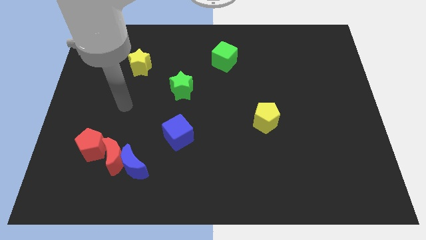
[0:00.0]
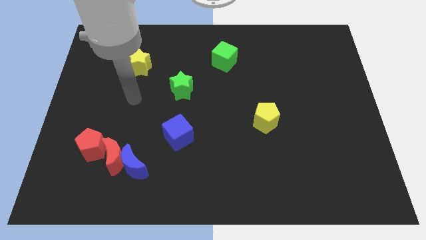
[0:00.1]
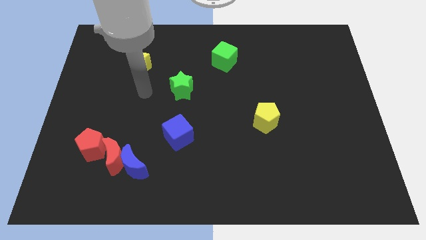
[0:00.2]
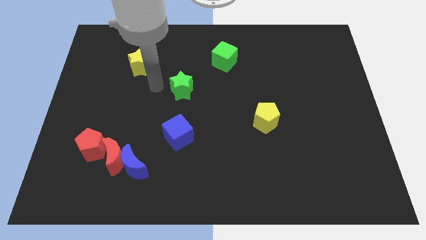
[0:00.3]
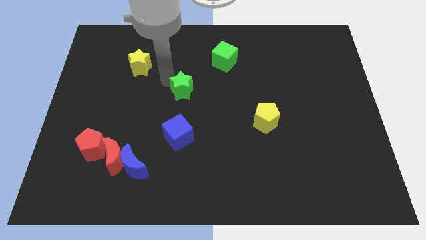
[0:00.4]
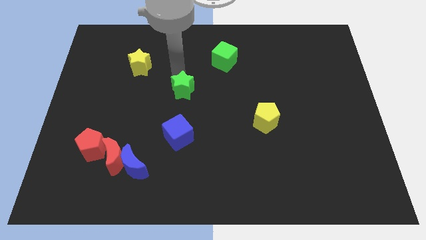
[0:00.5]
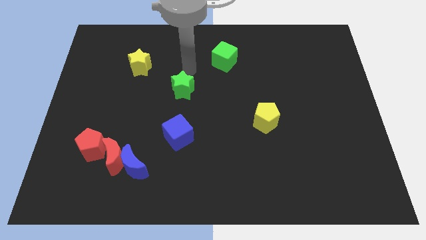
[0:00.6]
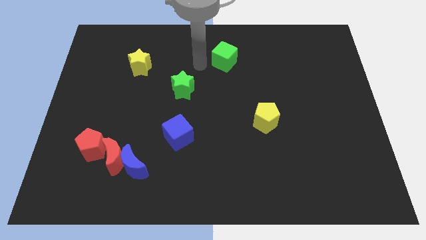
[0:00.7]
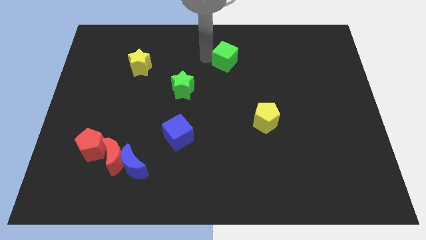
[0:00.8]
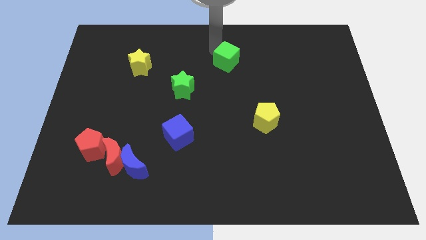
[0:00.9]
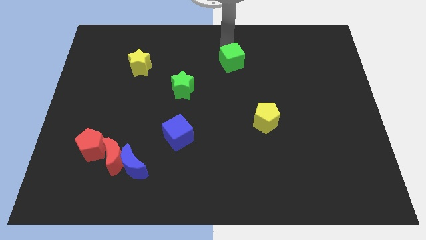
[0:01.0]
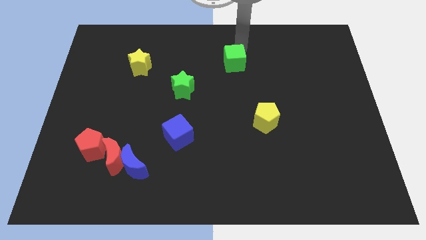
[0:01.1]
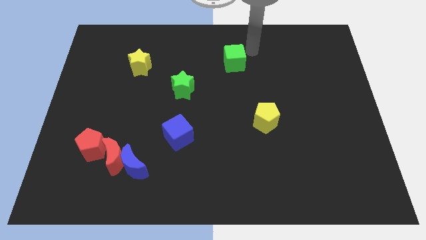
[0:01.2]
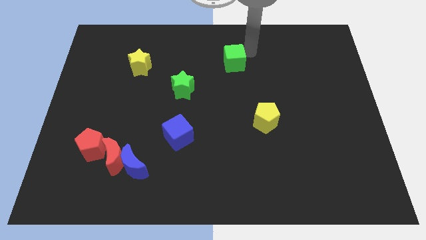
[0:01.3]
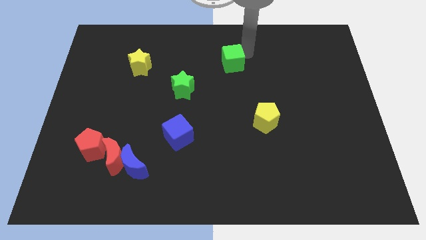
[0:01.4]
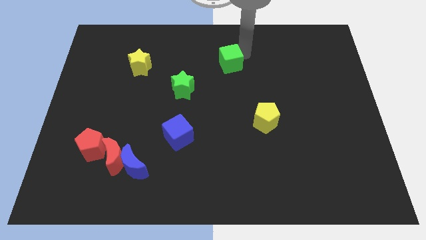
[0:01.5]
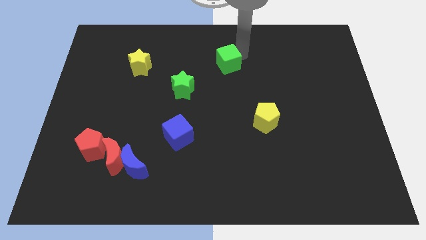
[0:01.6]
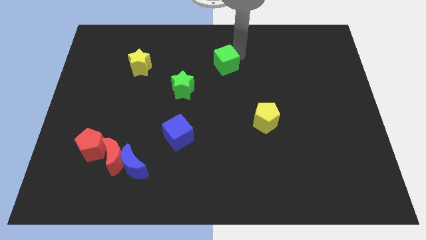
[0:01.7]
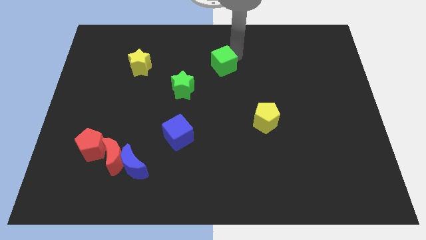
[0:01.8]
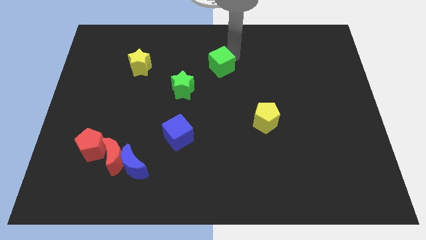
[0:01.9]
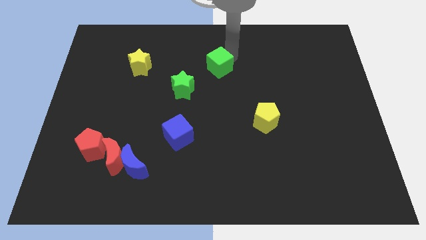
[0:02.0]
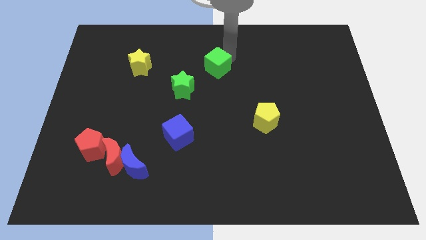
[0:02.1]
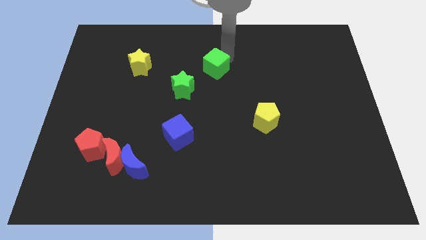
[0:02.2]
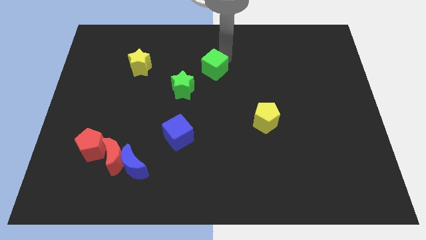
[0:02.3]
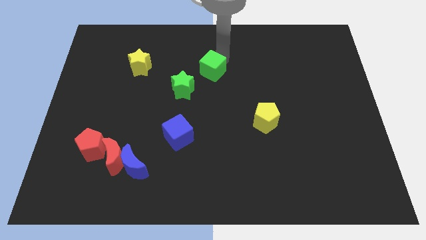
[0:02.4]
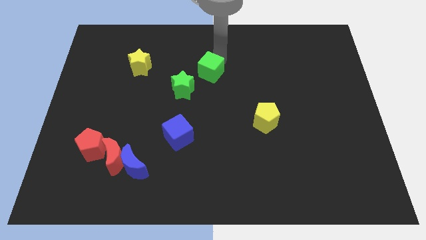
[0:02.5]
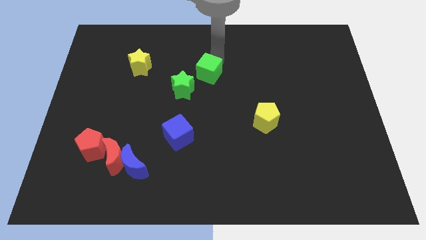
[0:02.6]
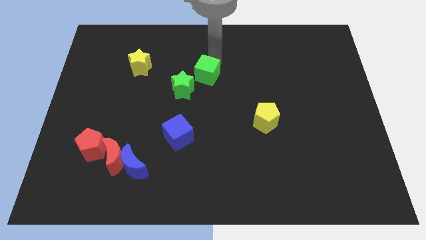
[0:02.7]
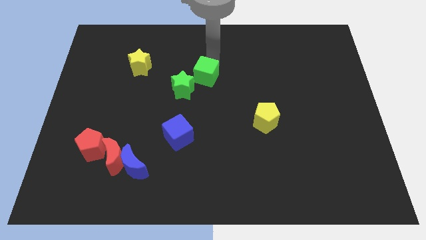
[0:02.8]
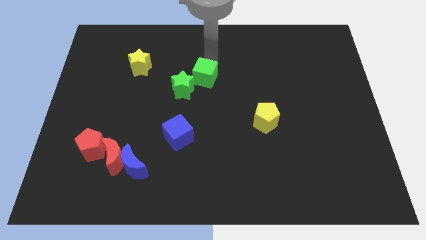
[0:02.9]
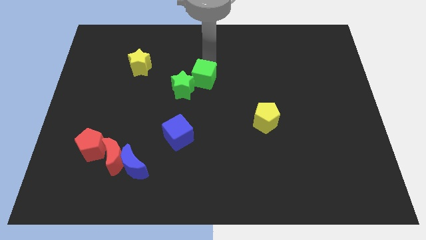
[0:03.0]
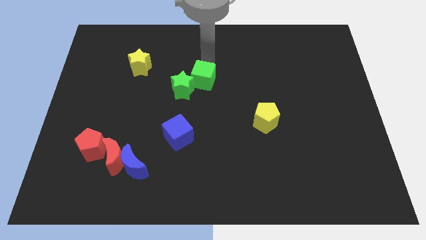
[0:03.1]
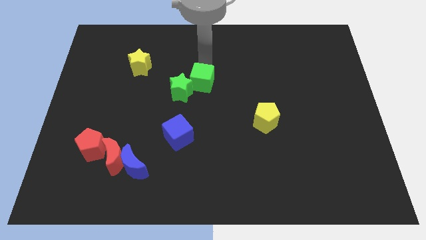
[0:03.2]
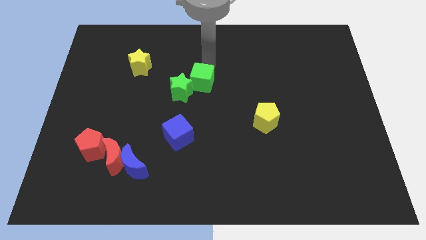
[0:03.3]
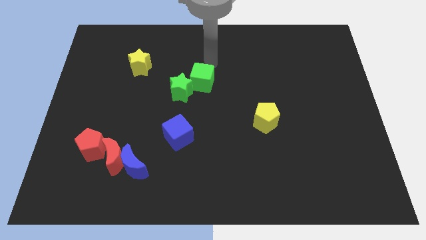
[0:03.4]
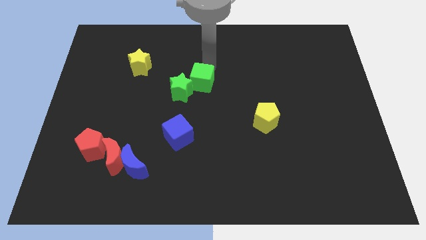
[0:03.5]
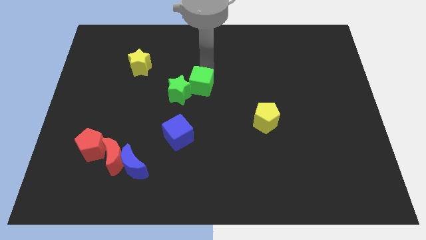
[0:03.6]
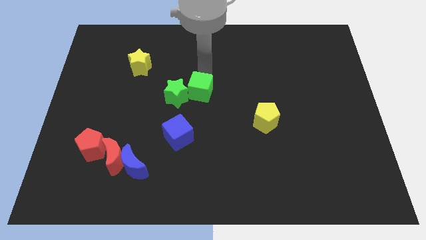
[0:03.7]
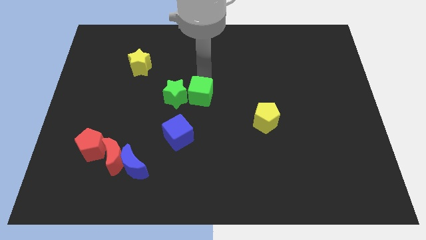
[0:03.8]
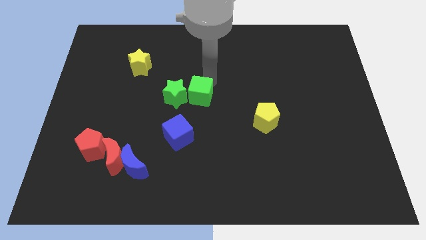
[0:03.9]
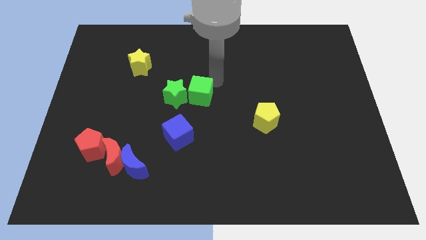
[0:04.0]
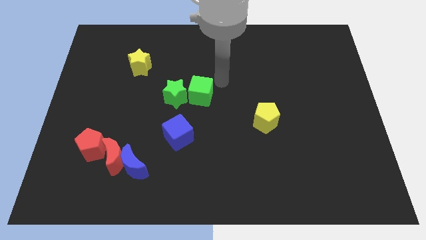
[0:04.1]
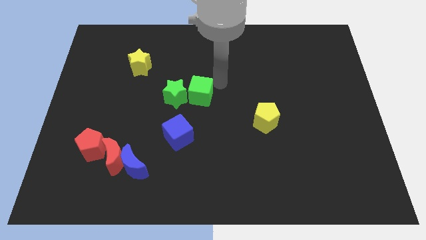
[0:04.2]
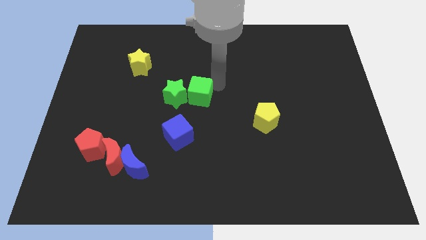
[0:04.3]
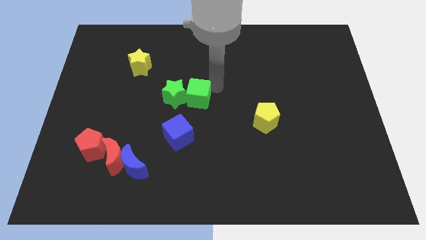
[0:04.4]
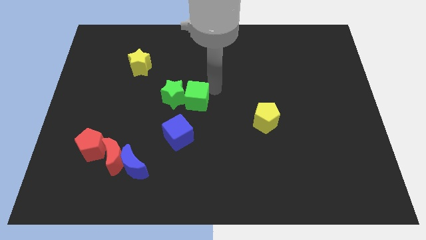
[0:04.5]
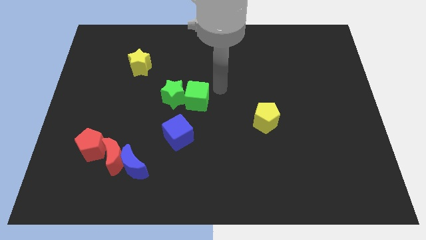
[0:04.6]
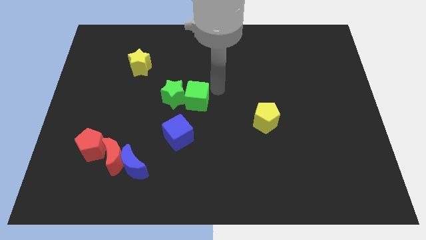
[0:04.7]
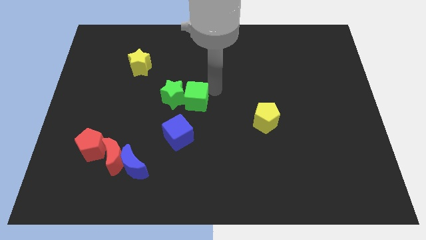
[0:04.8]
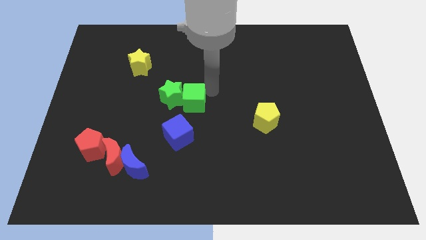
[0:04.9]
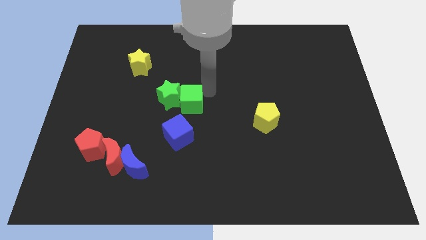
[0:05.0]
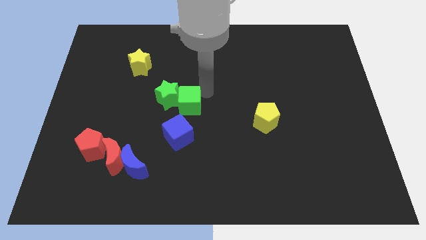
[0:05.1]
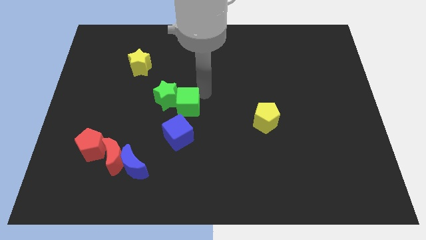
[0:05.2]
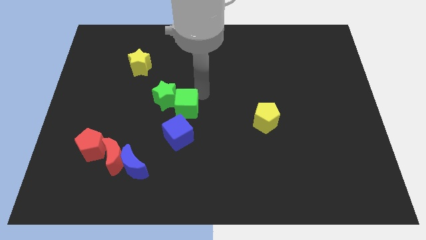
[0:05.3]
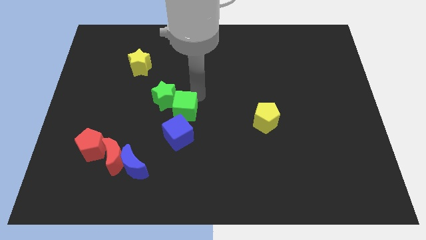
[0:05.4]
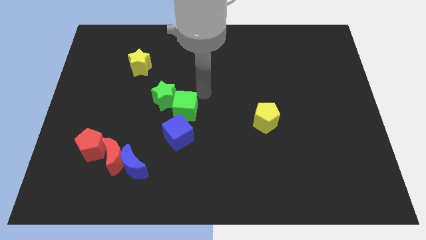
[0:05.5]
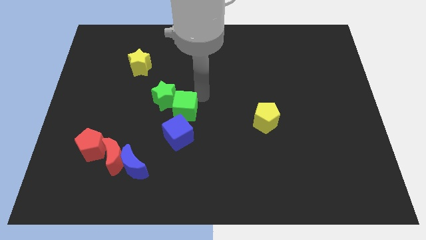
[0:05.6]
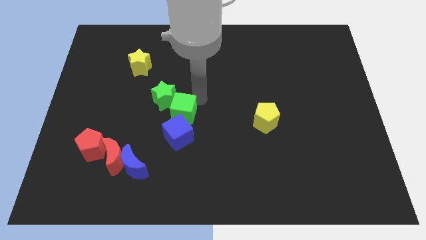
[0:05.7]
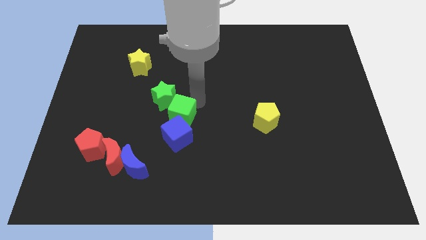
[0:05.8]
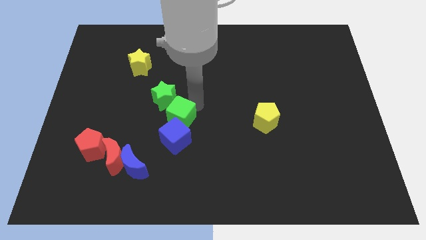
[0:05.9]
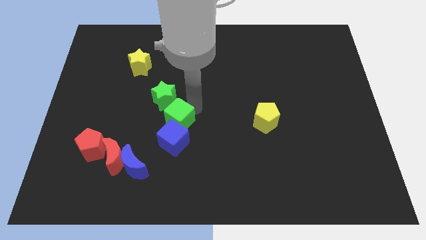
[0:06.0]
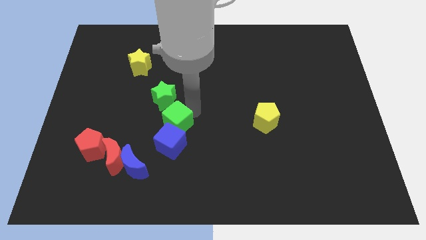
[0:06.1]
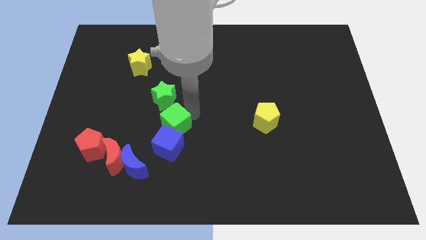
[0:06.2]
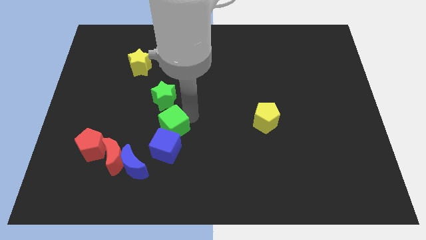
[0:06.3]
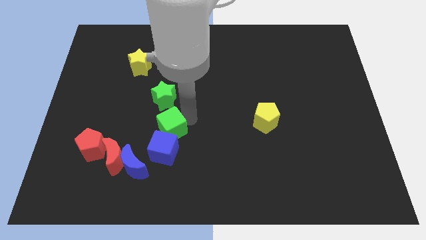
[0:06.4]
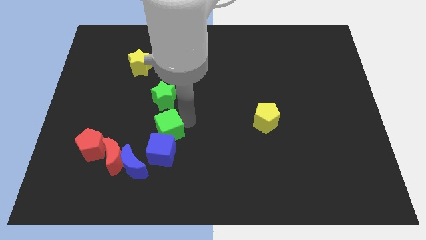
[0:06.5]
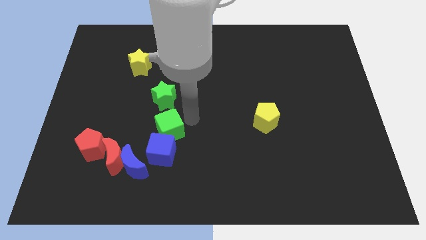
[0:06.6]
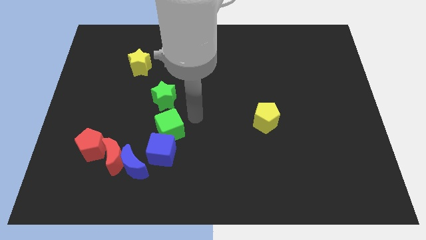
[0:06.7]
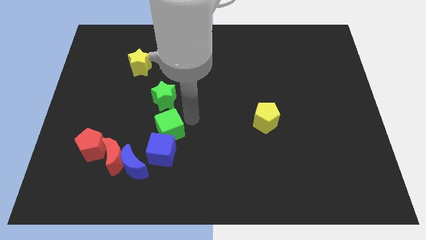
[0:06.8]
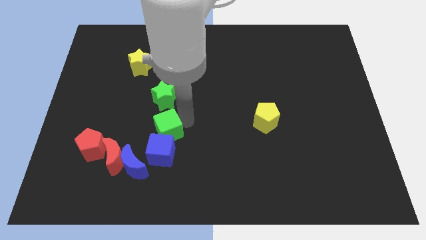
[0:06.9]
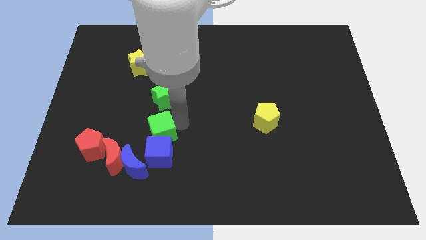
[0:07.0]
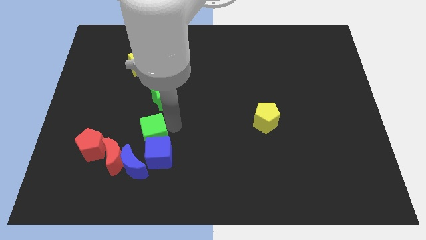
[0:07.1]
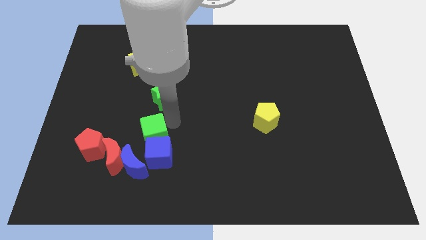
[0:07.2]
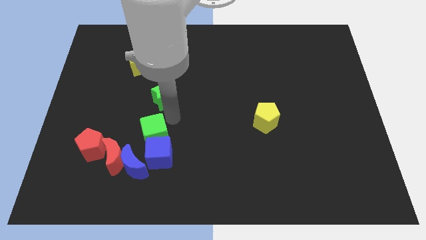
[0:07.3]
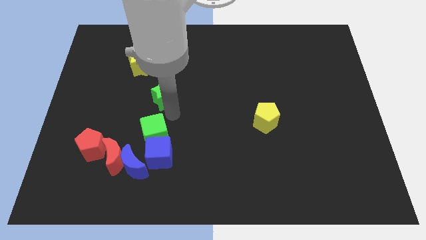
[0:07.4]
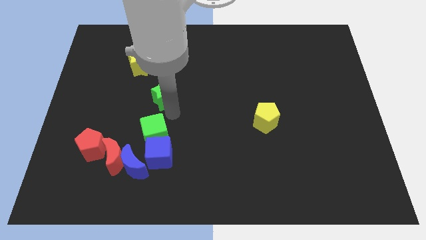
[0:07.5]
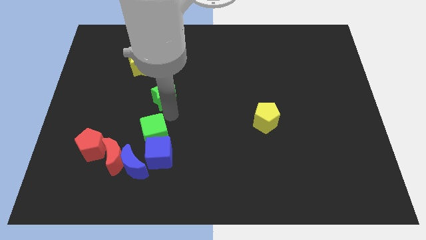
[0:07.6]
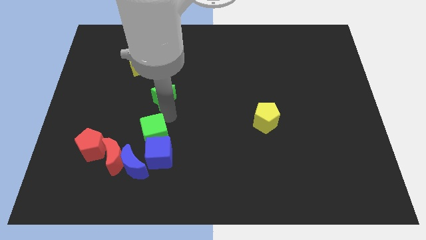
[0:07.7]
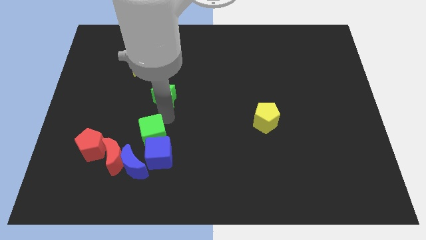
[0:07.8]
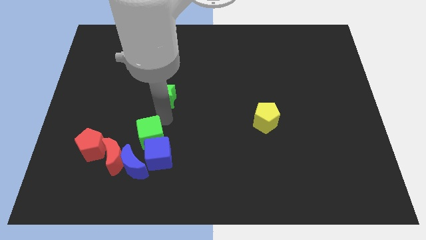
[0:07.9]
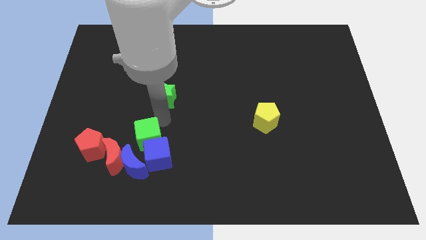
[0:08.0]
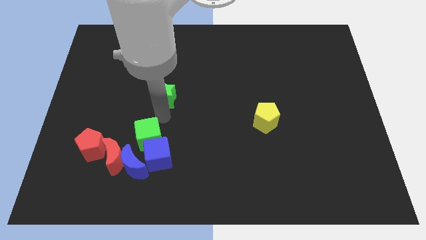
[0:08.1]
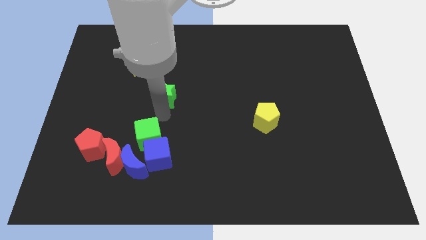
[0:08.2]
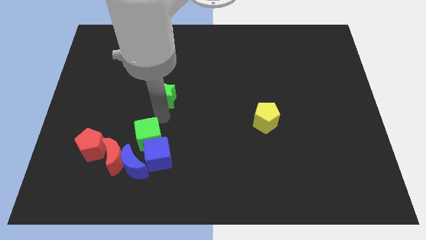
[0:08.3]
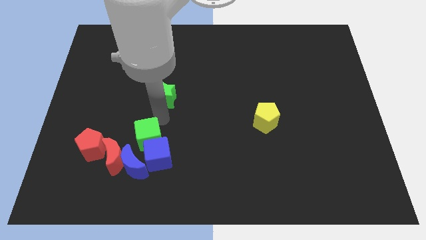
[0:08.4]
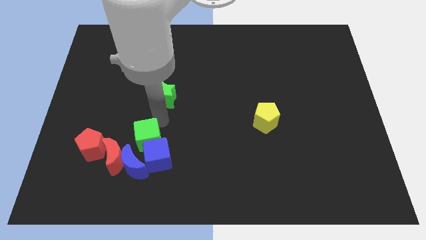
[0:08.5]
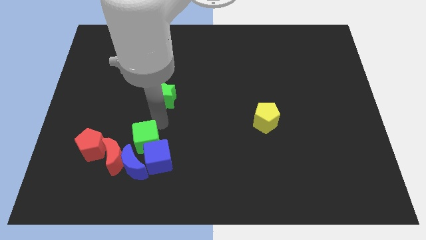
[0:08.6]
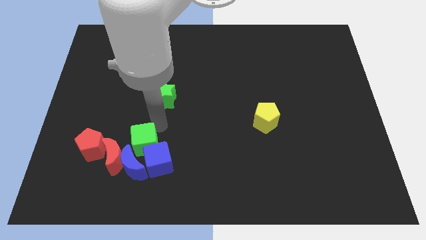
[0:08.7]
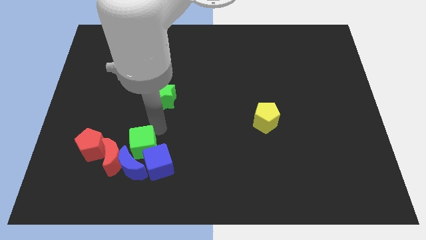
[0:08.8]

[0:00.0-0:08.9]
put the green cube close to the blue moon
